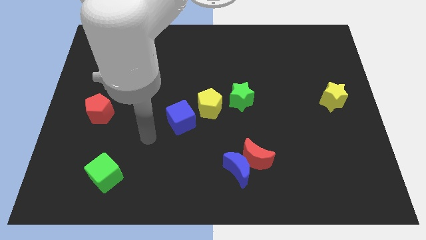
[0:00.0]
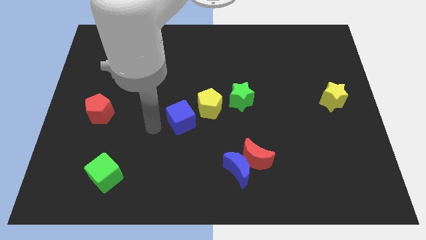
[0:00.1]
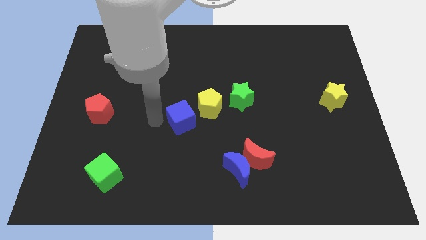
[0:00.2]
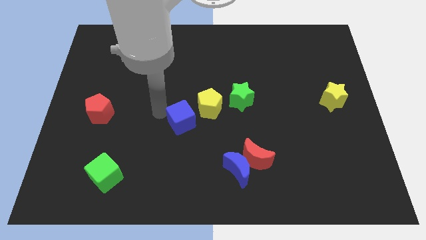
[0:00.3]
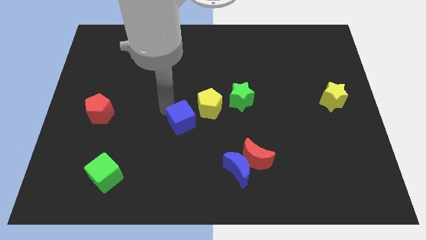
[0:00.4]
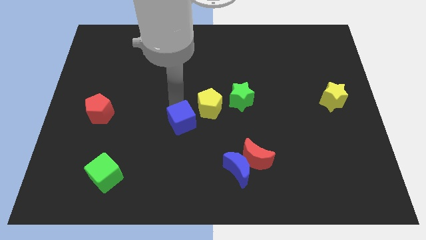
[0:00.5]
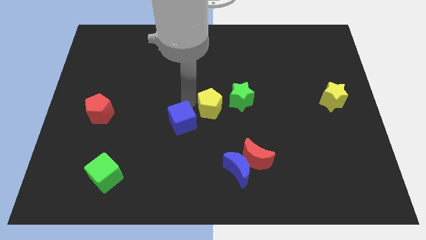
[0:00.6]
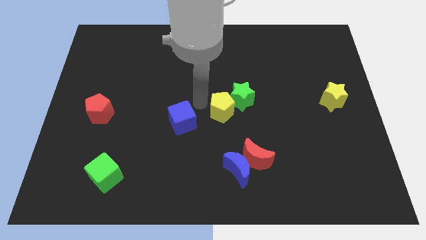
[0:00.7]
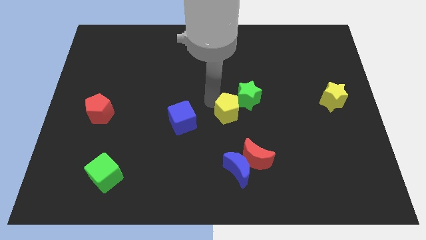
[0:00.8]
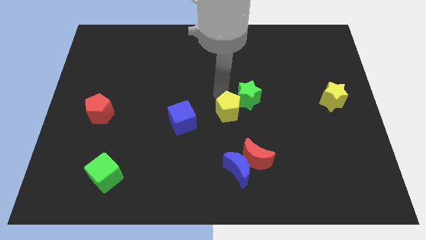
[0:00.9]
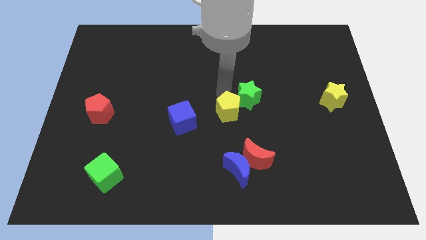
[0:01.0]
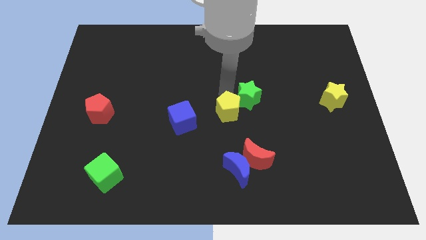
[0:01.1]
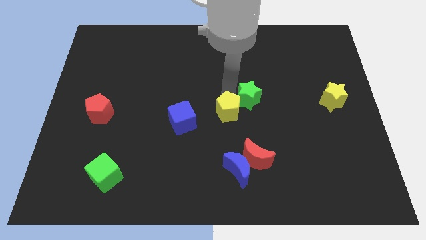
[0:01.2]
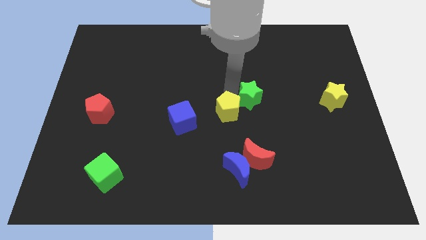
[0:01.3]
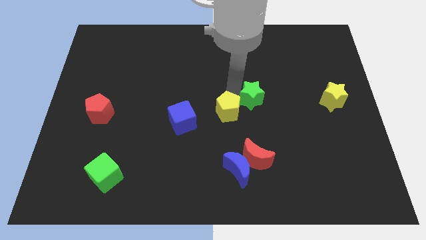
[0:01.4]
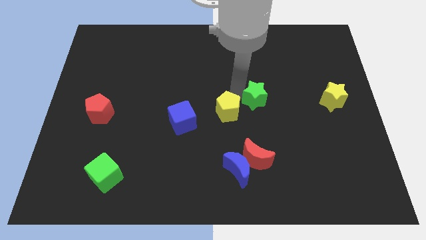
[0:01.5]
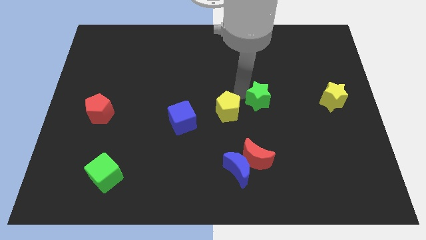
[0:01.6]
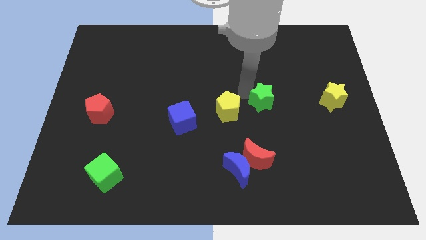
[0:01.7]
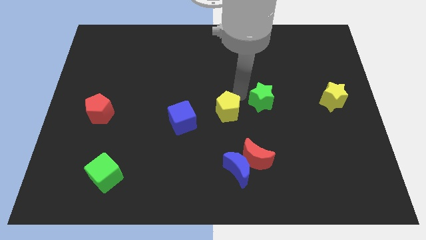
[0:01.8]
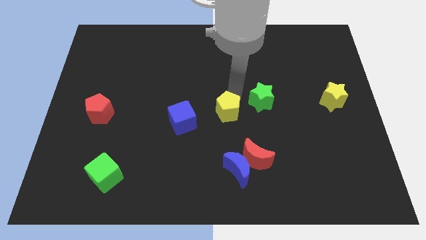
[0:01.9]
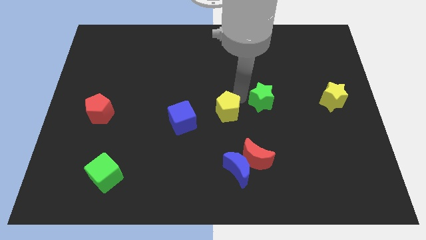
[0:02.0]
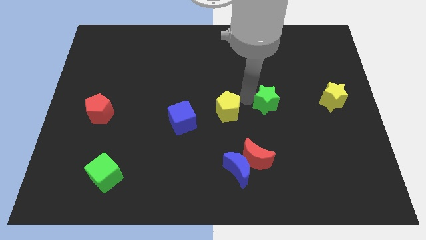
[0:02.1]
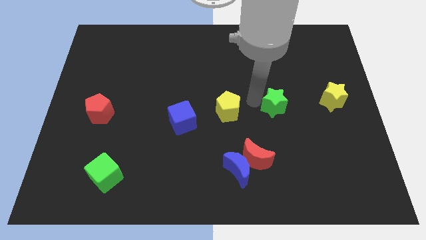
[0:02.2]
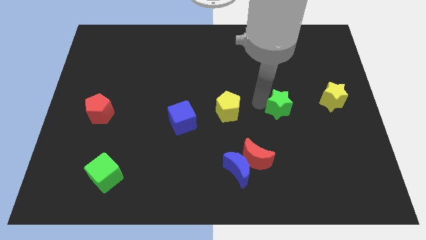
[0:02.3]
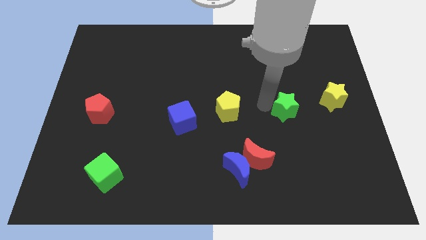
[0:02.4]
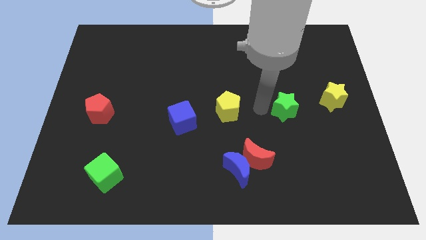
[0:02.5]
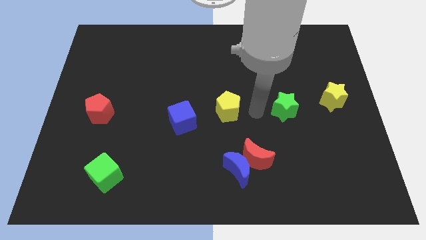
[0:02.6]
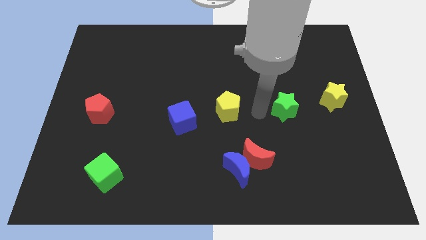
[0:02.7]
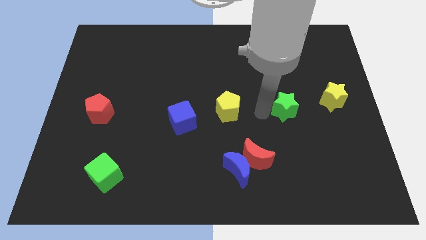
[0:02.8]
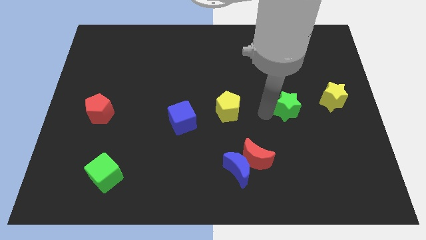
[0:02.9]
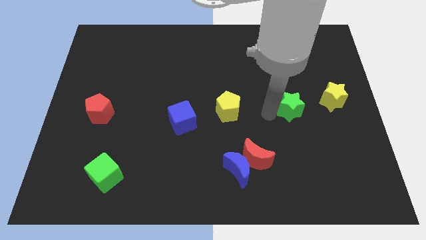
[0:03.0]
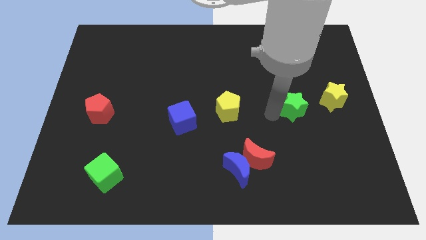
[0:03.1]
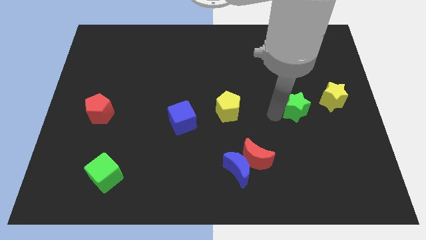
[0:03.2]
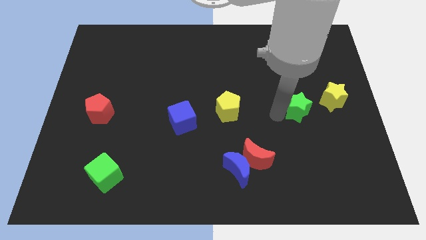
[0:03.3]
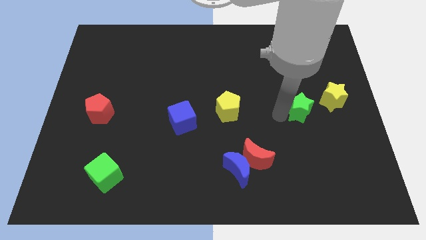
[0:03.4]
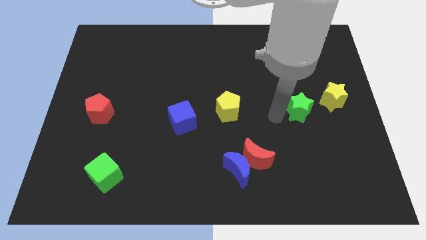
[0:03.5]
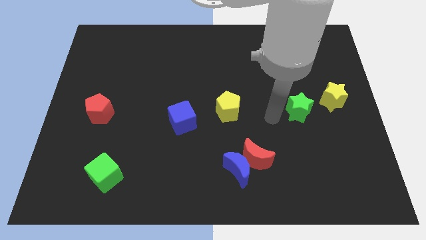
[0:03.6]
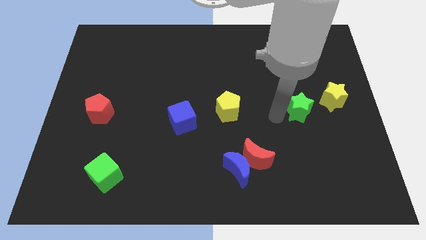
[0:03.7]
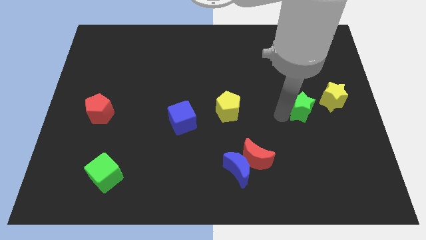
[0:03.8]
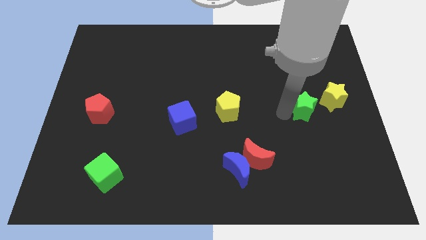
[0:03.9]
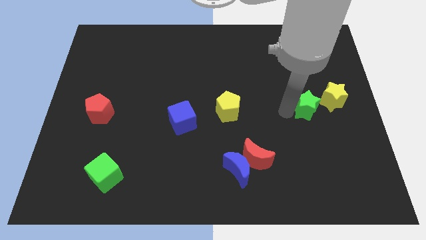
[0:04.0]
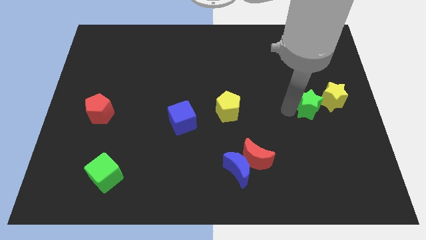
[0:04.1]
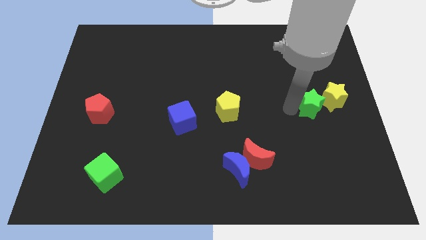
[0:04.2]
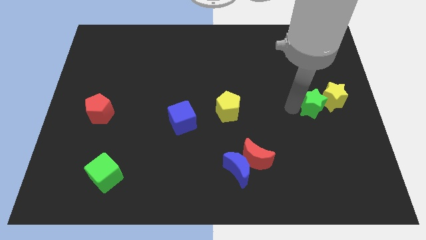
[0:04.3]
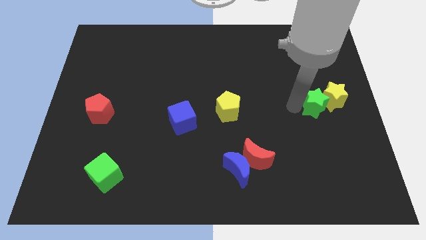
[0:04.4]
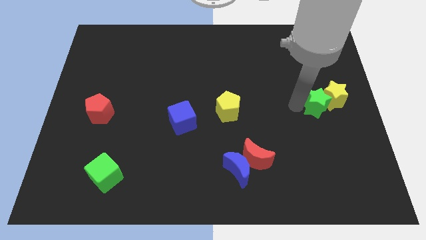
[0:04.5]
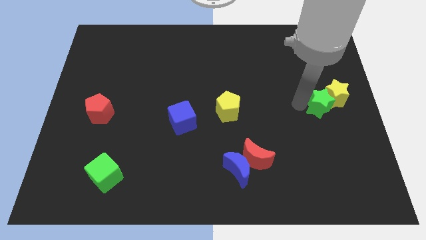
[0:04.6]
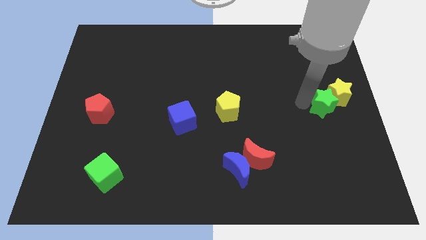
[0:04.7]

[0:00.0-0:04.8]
slide the green star to the right side of the board

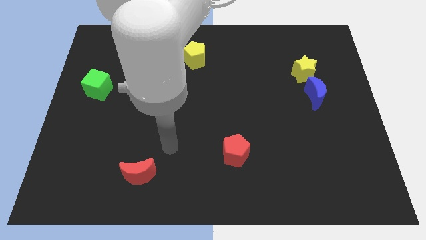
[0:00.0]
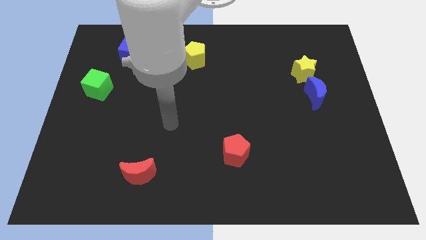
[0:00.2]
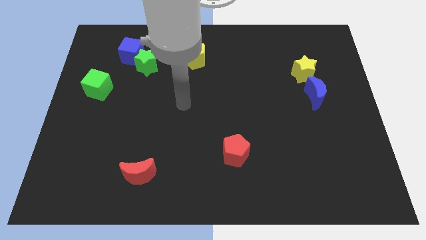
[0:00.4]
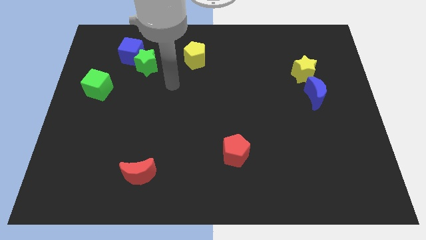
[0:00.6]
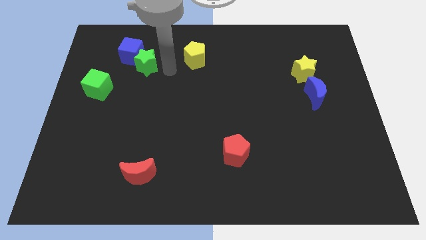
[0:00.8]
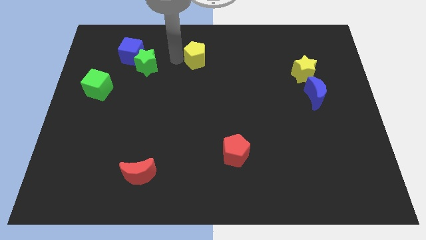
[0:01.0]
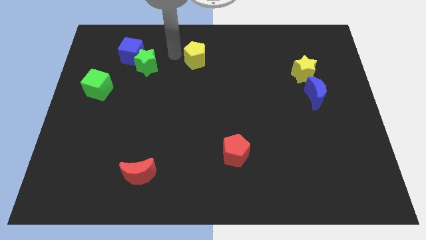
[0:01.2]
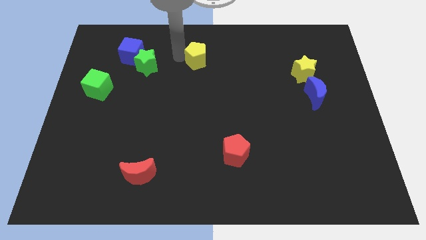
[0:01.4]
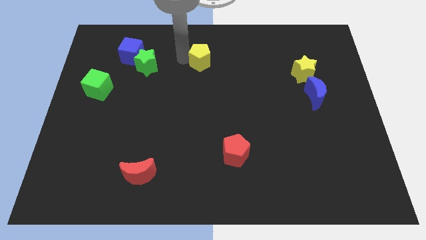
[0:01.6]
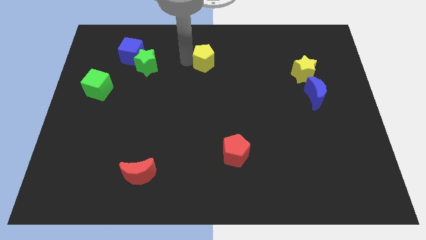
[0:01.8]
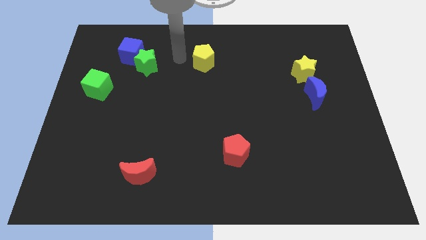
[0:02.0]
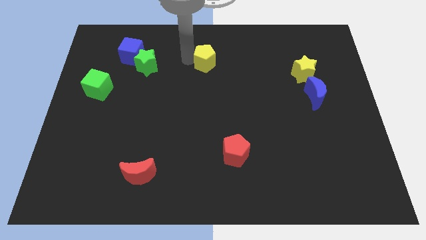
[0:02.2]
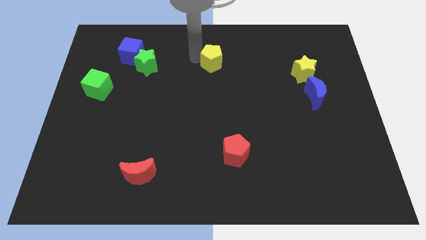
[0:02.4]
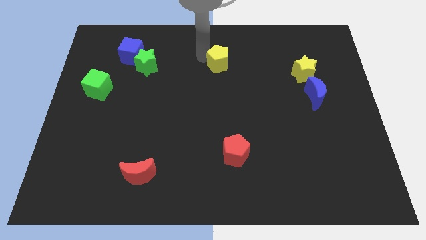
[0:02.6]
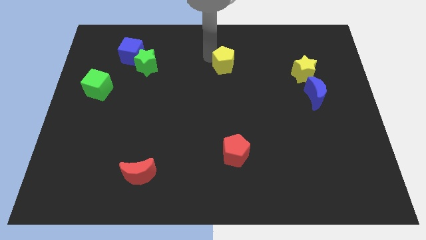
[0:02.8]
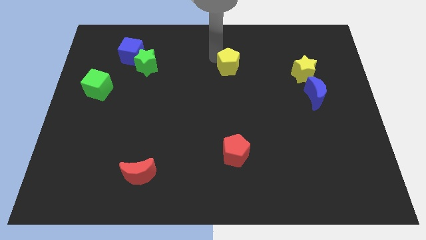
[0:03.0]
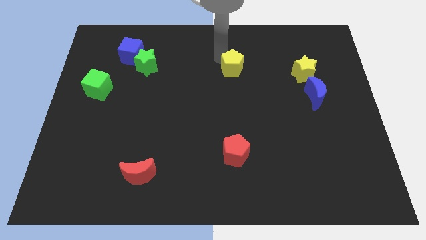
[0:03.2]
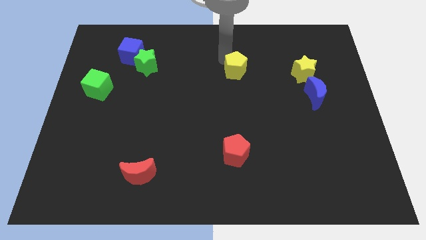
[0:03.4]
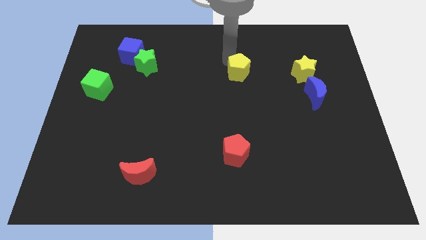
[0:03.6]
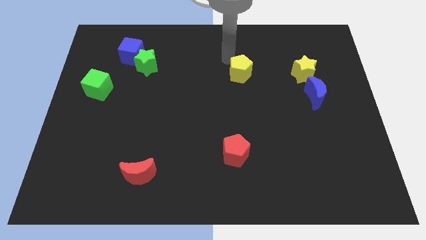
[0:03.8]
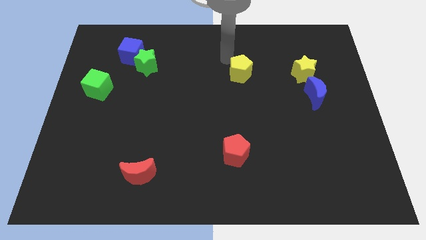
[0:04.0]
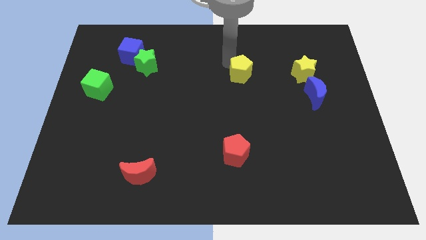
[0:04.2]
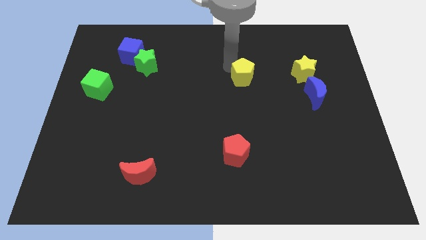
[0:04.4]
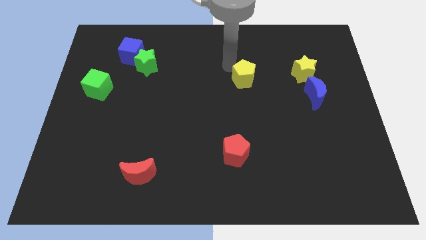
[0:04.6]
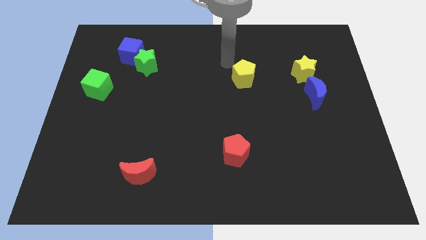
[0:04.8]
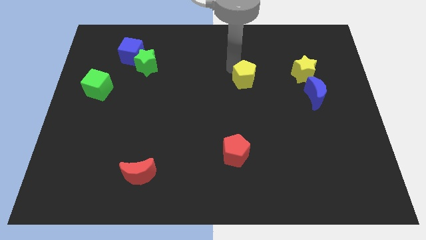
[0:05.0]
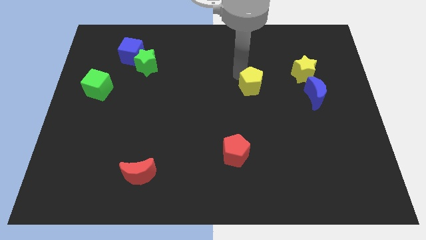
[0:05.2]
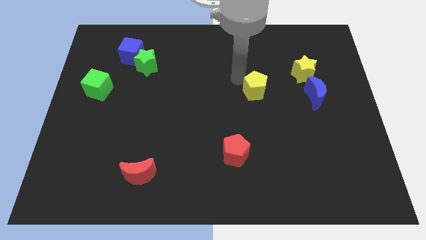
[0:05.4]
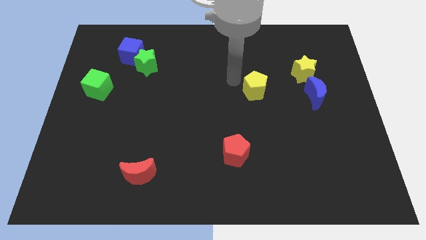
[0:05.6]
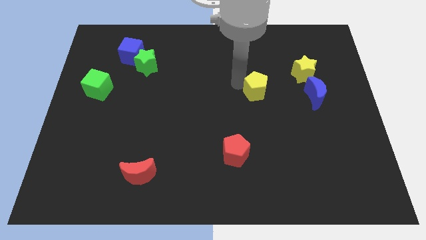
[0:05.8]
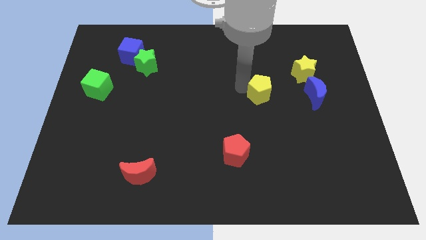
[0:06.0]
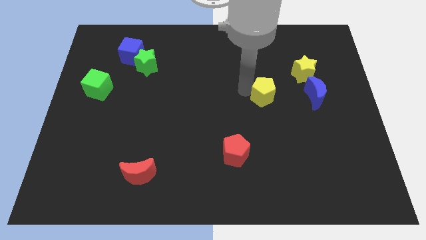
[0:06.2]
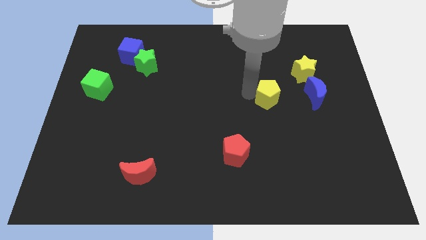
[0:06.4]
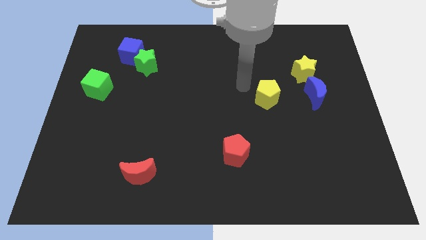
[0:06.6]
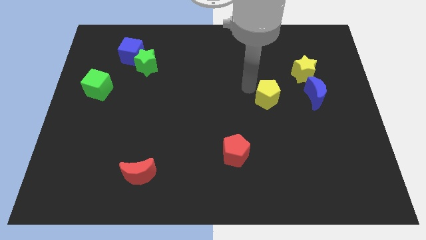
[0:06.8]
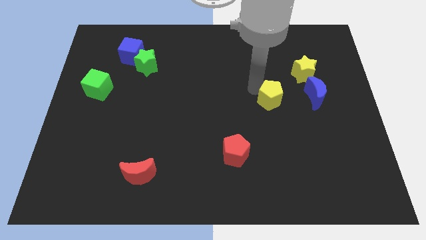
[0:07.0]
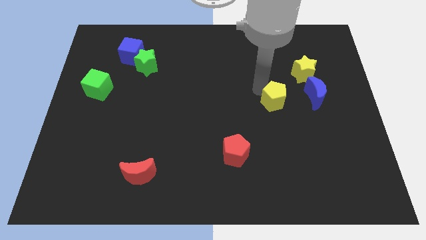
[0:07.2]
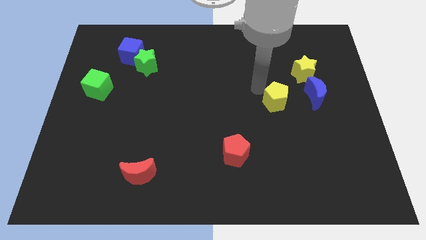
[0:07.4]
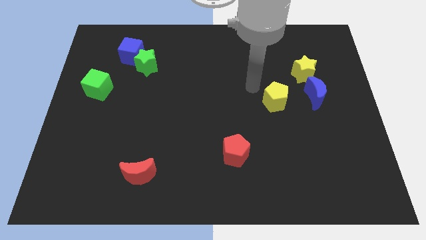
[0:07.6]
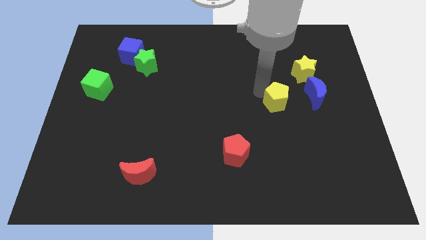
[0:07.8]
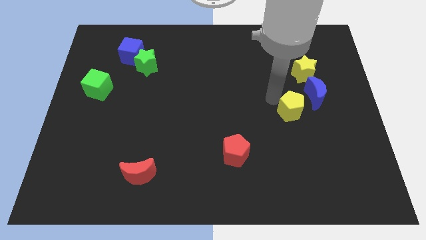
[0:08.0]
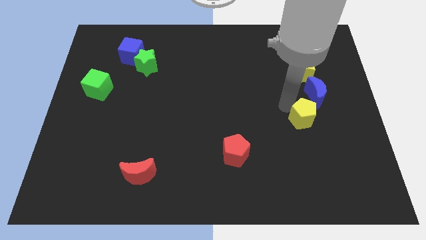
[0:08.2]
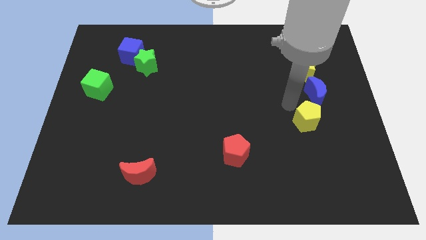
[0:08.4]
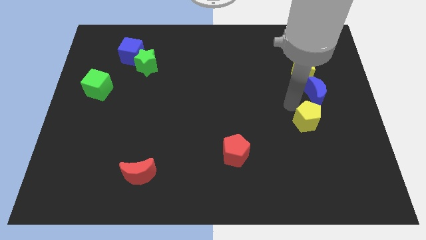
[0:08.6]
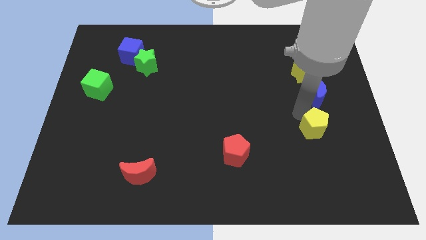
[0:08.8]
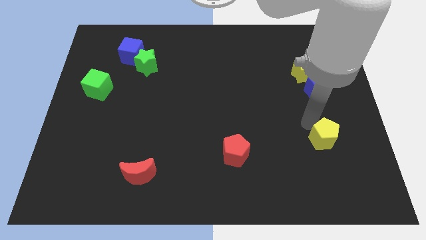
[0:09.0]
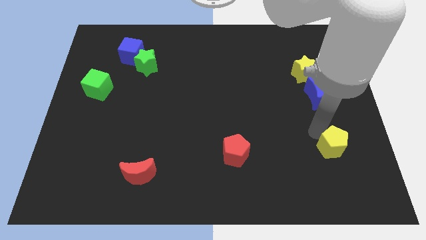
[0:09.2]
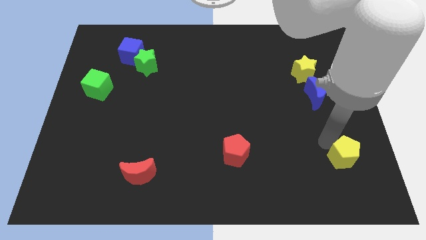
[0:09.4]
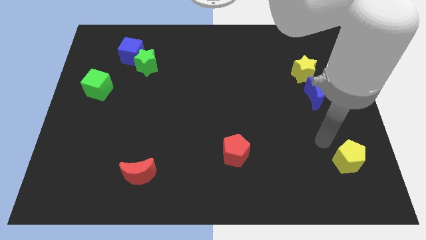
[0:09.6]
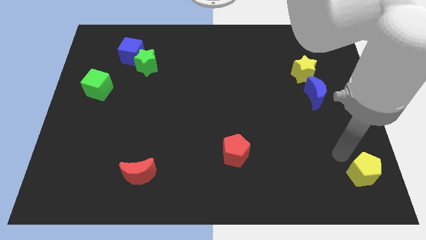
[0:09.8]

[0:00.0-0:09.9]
move the yellow pentagon to the bottom right of the board
